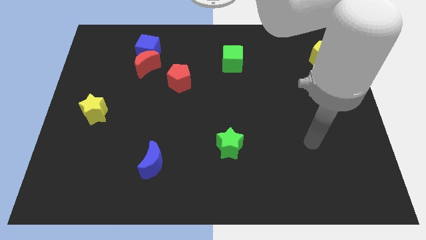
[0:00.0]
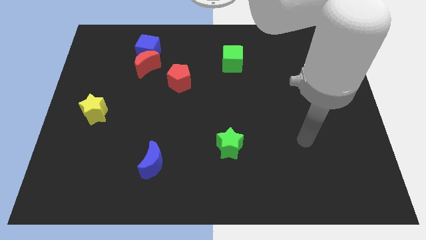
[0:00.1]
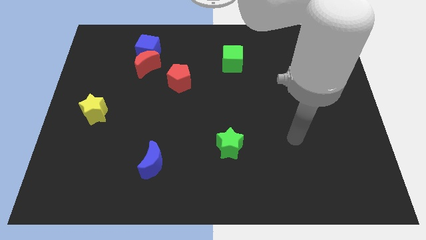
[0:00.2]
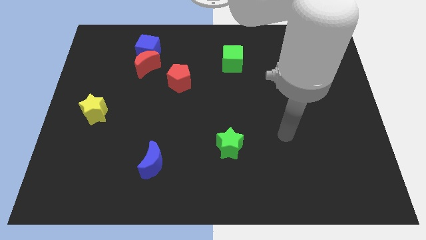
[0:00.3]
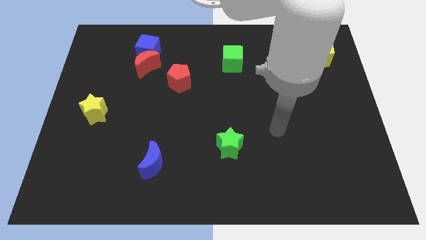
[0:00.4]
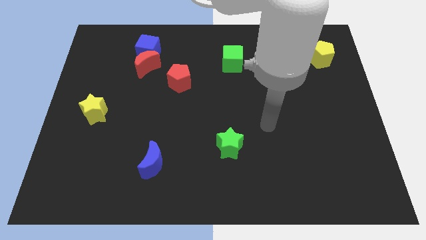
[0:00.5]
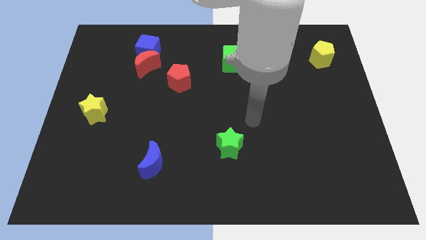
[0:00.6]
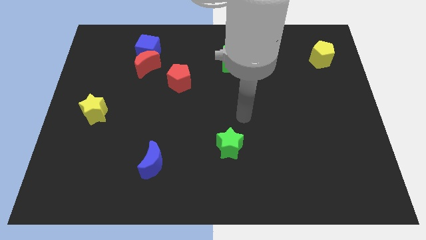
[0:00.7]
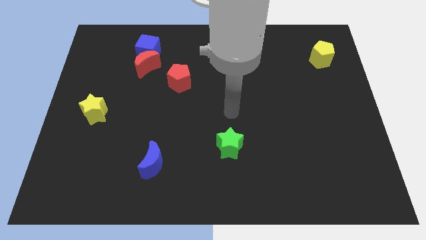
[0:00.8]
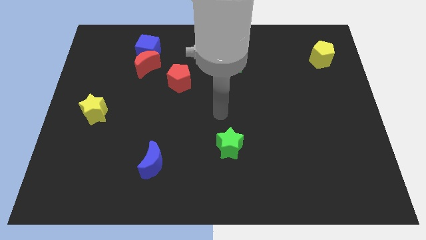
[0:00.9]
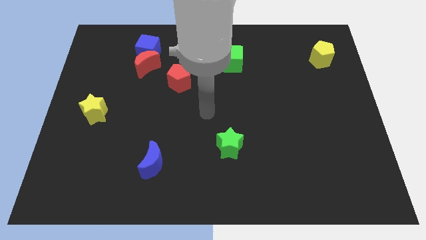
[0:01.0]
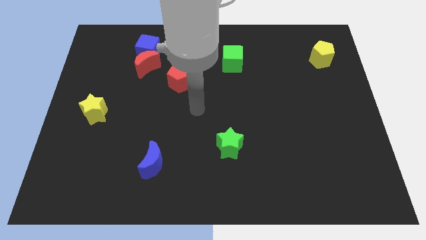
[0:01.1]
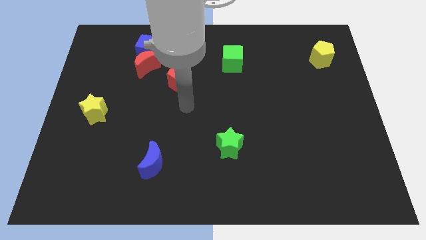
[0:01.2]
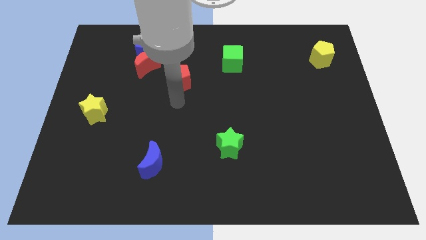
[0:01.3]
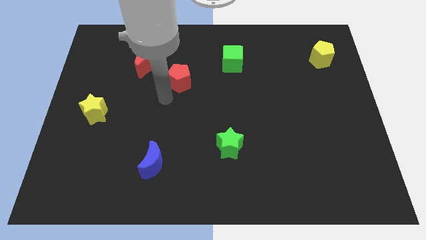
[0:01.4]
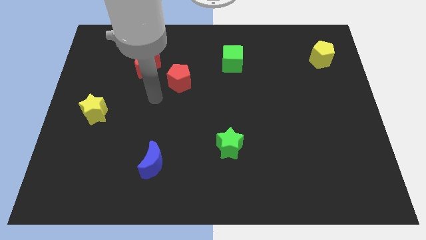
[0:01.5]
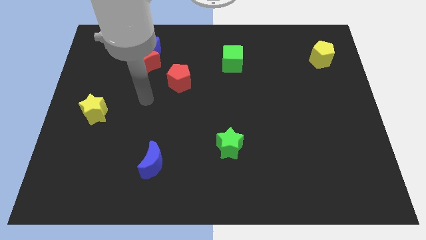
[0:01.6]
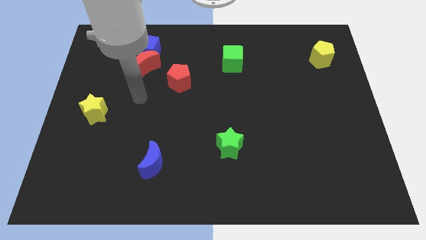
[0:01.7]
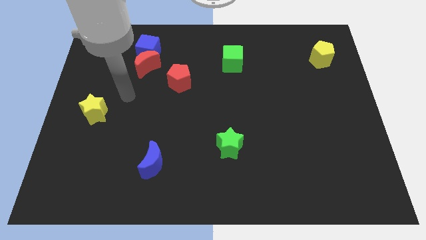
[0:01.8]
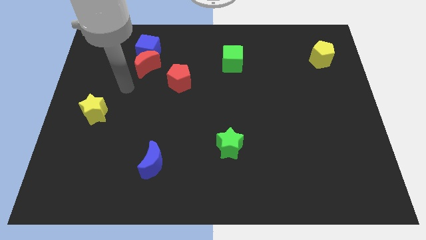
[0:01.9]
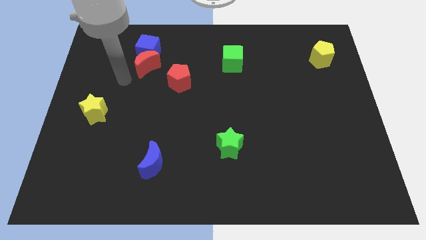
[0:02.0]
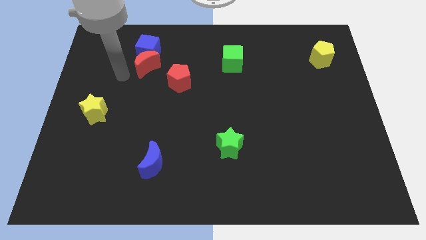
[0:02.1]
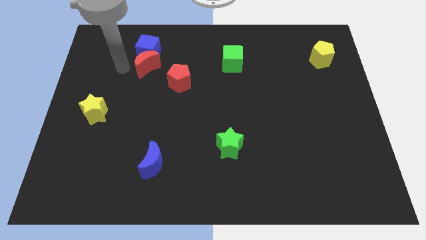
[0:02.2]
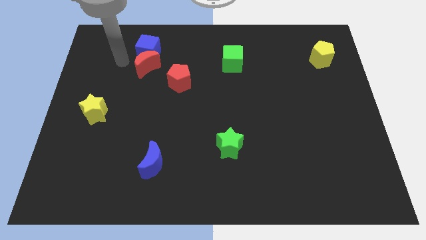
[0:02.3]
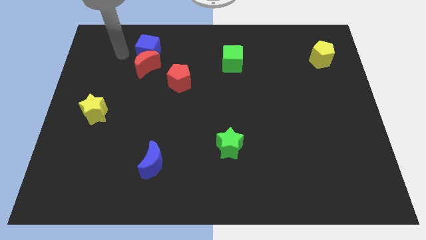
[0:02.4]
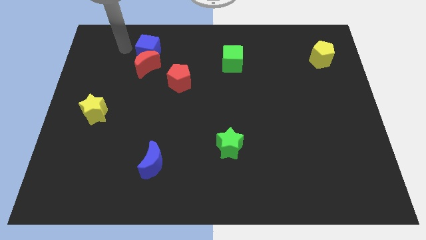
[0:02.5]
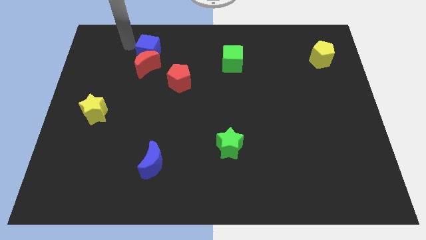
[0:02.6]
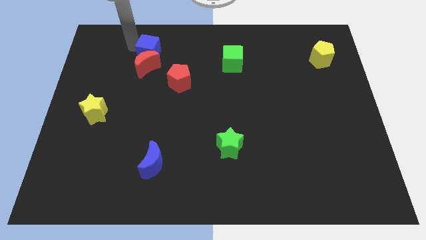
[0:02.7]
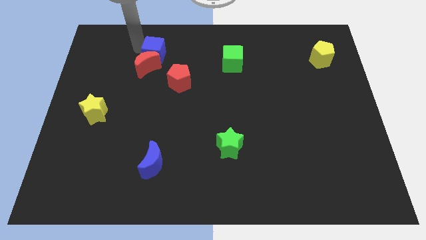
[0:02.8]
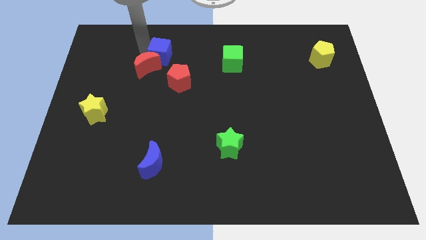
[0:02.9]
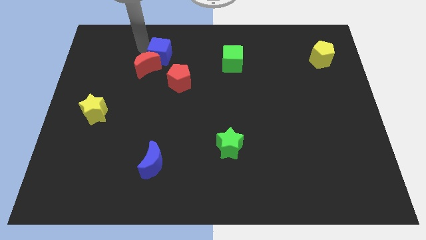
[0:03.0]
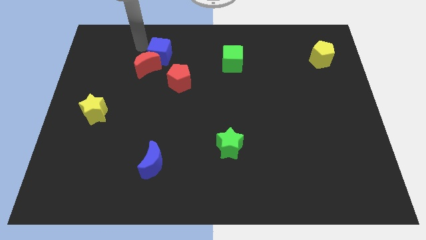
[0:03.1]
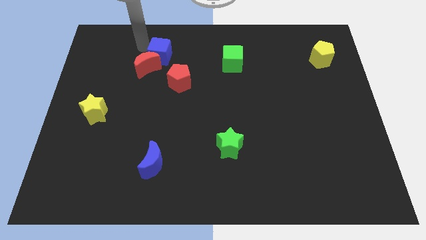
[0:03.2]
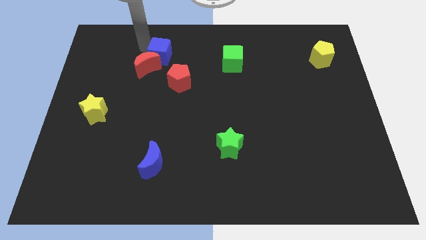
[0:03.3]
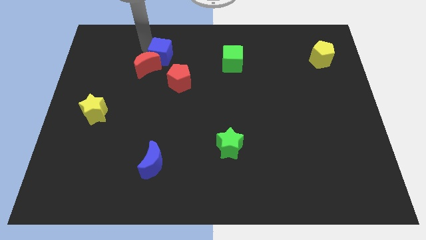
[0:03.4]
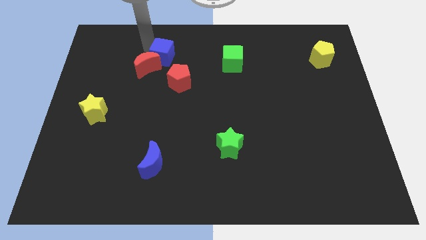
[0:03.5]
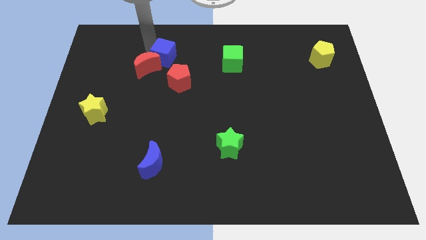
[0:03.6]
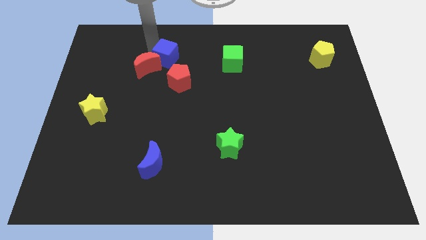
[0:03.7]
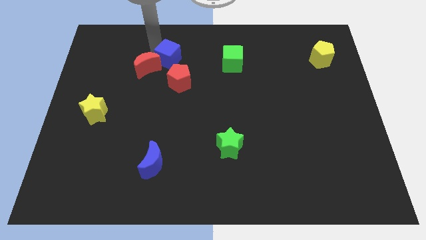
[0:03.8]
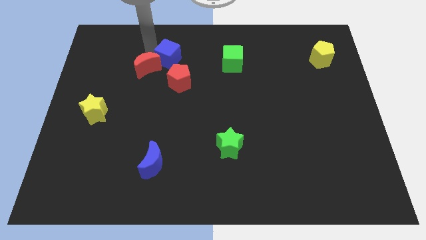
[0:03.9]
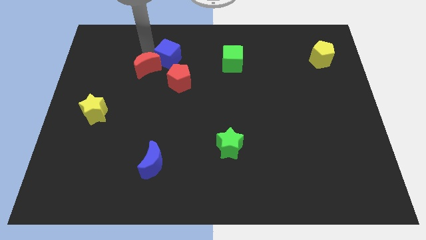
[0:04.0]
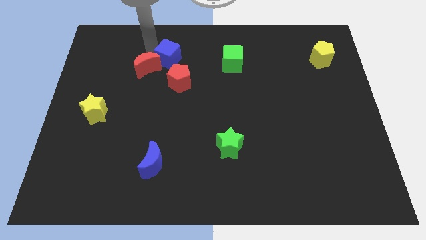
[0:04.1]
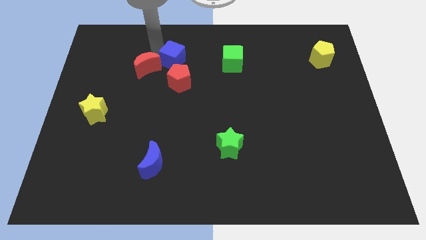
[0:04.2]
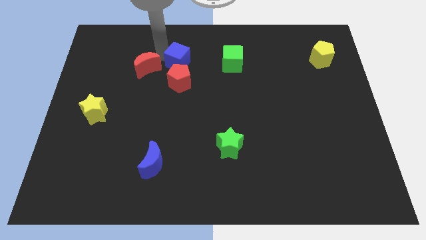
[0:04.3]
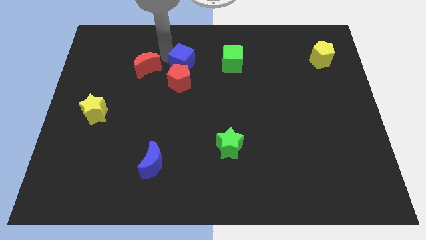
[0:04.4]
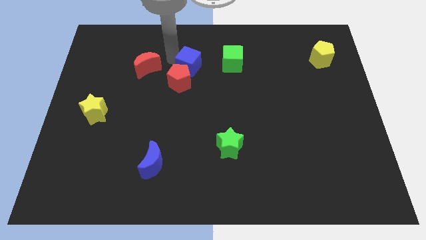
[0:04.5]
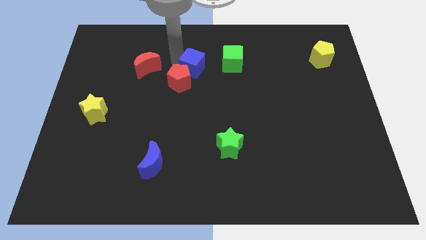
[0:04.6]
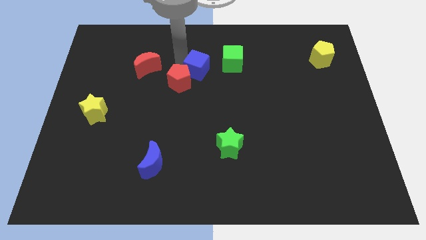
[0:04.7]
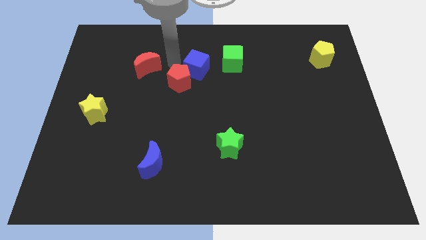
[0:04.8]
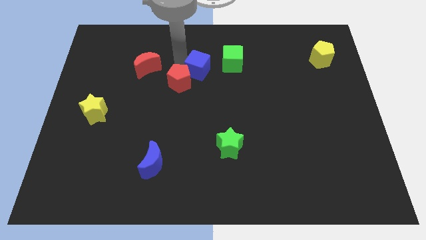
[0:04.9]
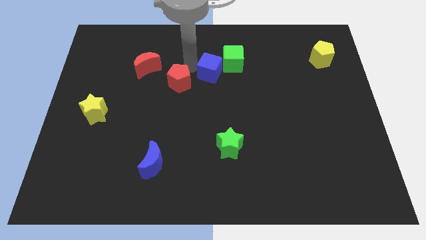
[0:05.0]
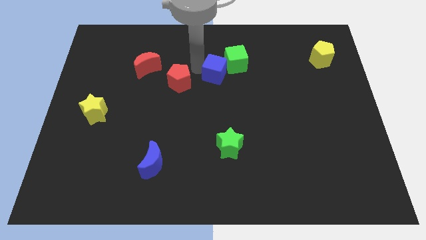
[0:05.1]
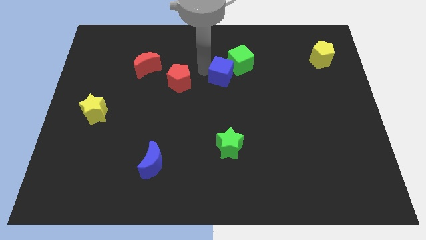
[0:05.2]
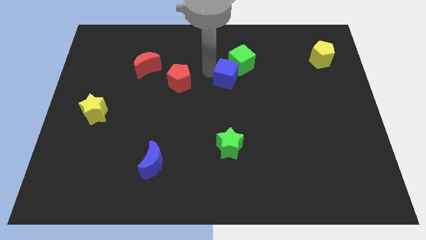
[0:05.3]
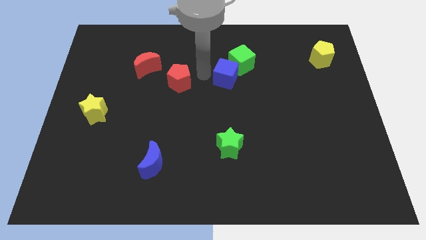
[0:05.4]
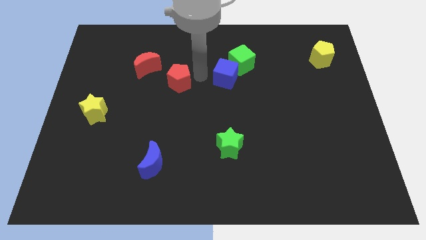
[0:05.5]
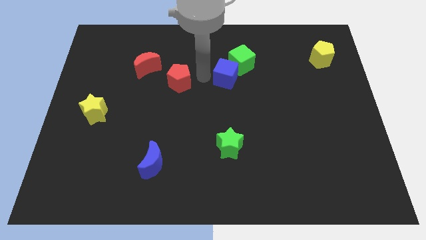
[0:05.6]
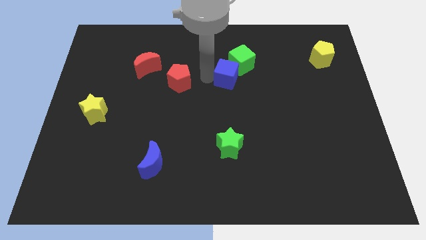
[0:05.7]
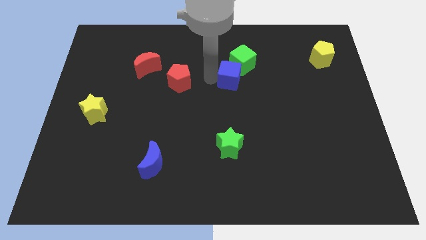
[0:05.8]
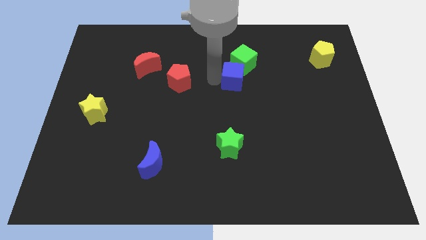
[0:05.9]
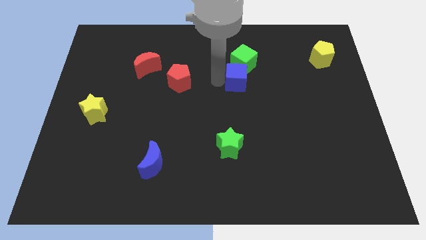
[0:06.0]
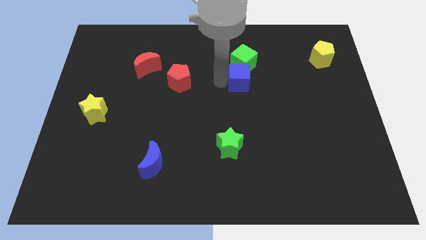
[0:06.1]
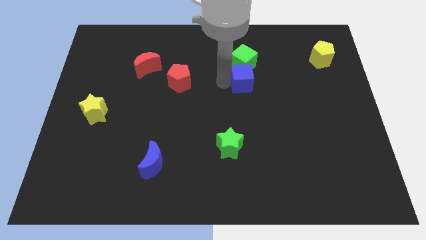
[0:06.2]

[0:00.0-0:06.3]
slide the blue cube diagonally down and to the right of the green cube

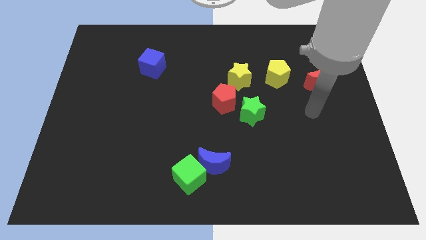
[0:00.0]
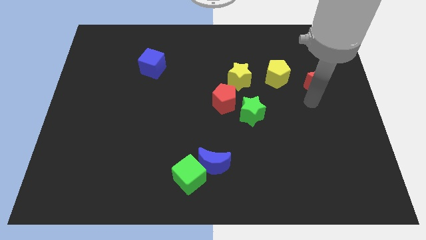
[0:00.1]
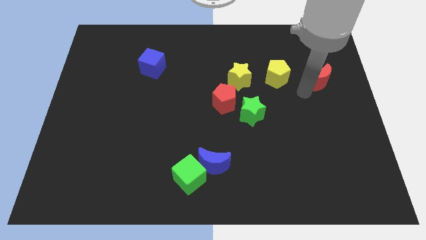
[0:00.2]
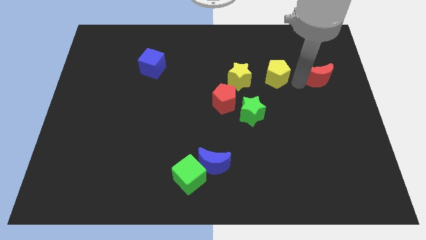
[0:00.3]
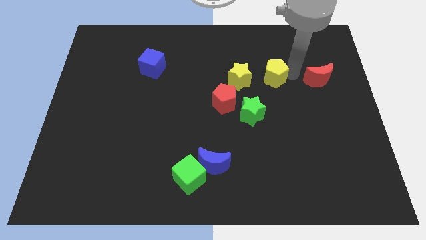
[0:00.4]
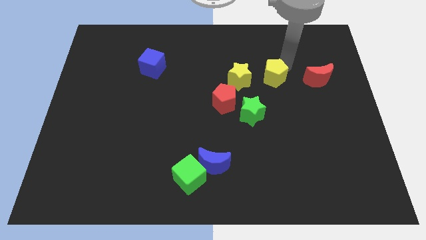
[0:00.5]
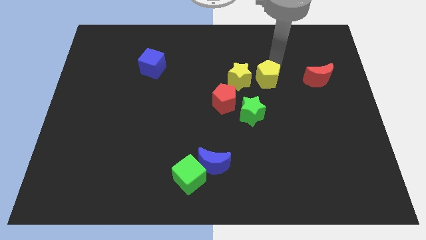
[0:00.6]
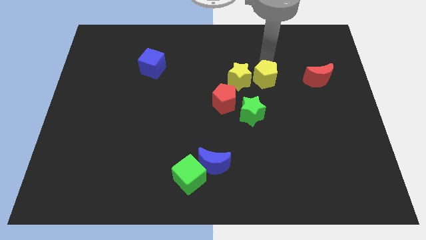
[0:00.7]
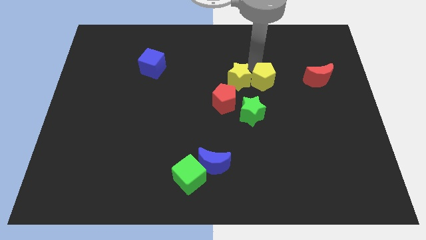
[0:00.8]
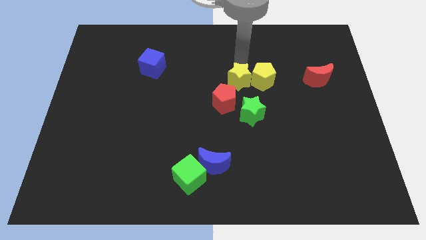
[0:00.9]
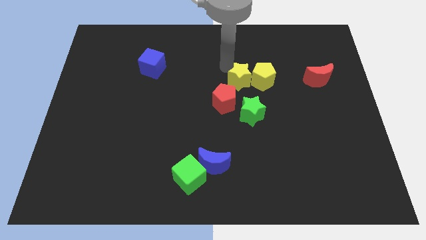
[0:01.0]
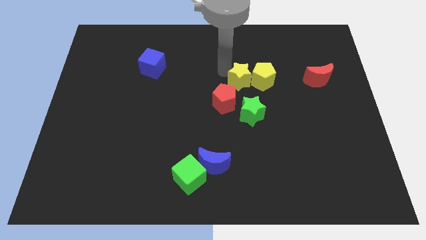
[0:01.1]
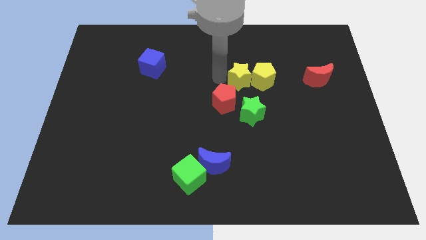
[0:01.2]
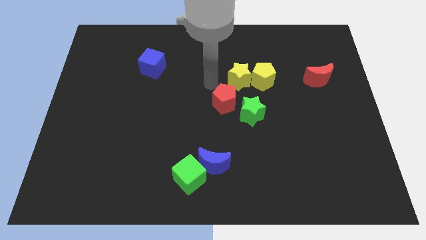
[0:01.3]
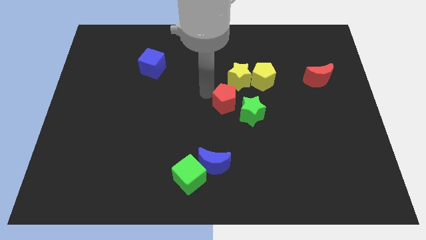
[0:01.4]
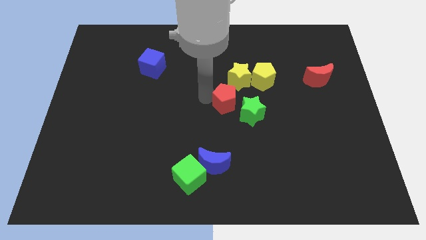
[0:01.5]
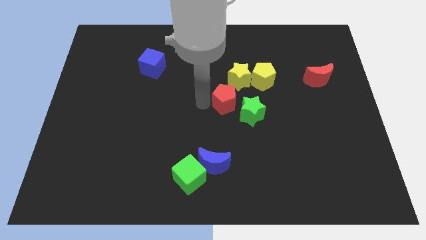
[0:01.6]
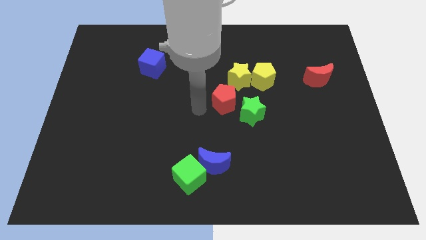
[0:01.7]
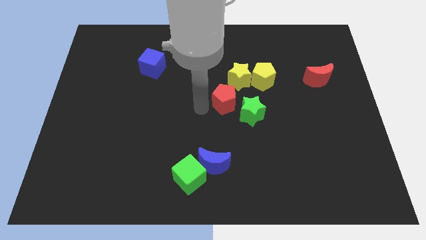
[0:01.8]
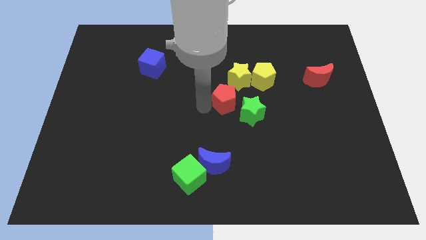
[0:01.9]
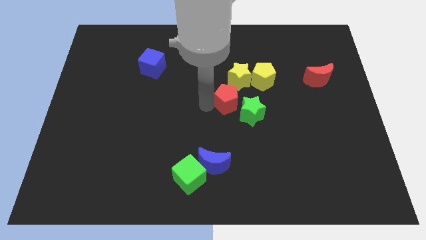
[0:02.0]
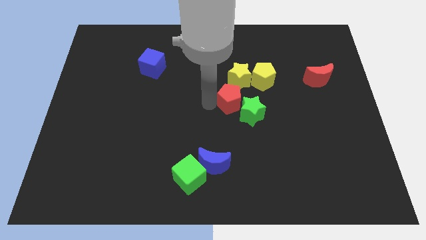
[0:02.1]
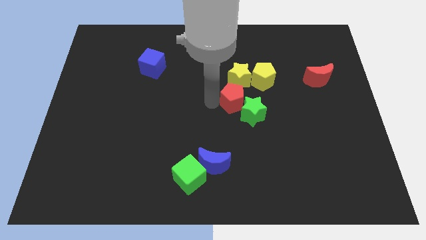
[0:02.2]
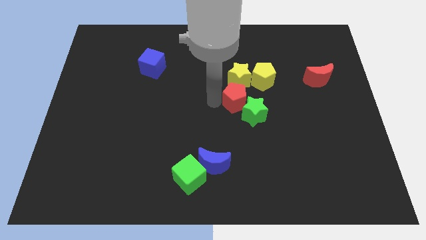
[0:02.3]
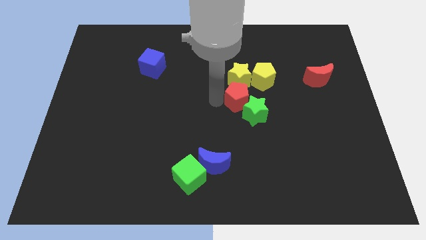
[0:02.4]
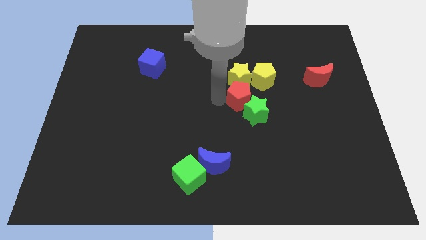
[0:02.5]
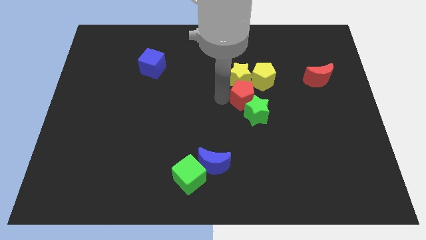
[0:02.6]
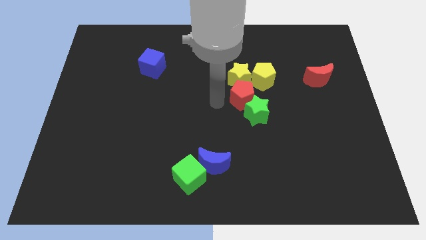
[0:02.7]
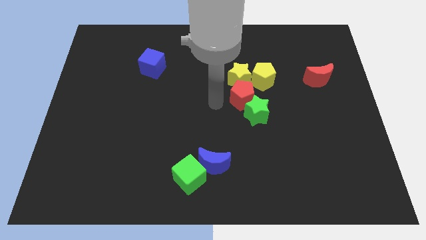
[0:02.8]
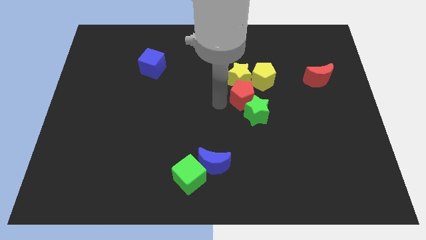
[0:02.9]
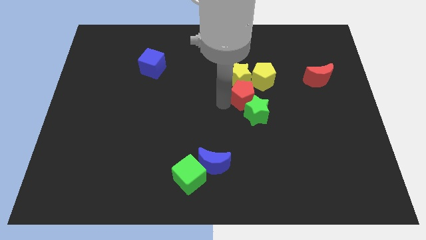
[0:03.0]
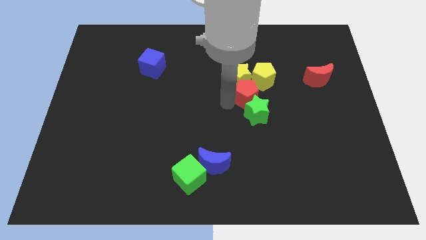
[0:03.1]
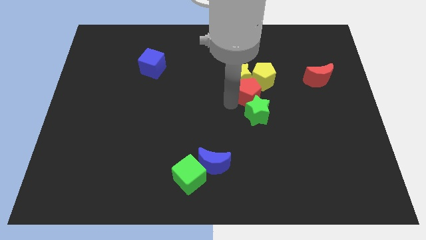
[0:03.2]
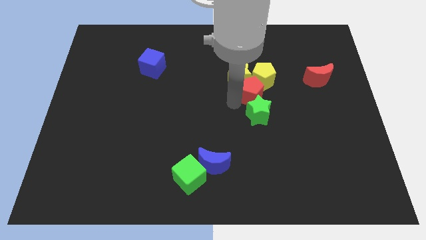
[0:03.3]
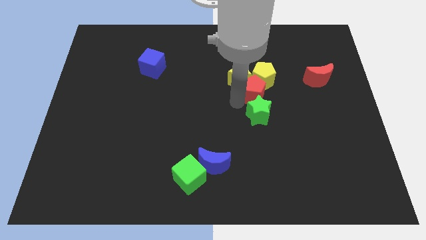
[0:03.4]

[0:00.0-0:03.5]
put the red pentagon right of the yellow star
